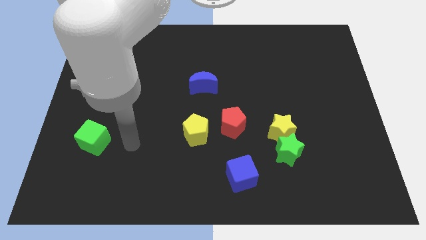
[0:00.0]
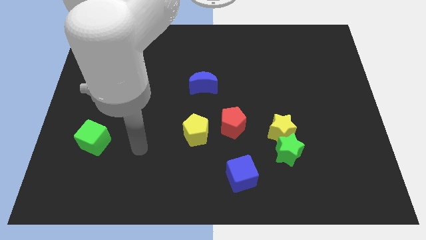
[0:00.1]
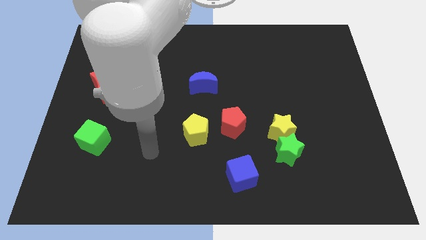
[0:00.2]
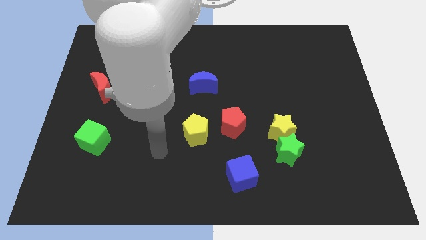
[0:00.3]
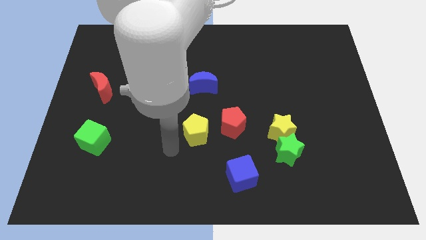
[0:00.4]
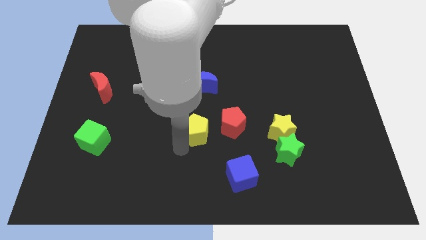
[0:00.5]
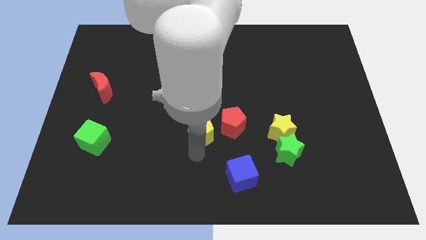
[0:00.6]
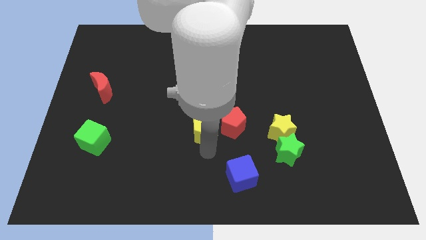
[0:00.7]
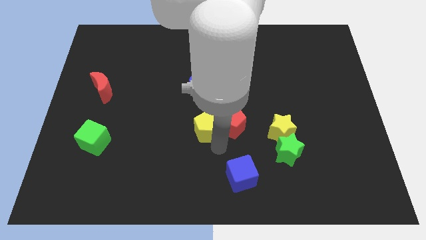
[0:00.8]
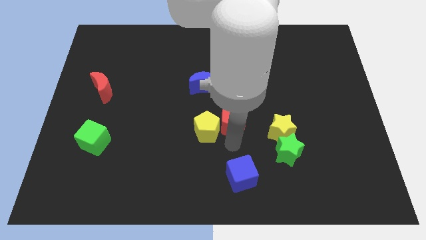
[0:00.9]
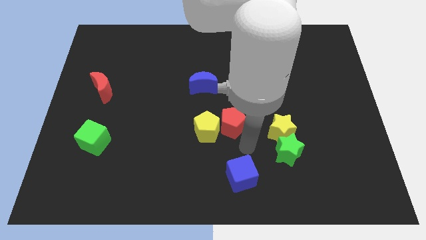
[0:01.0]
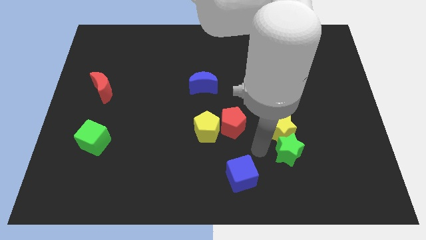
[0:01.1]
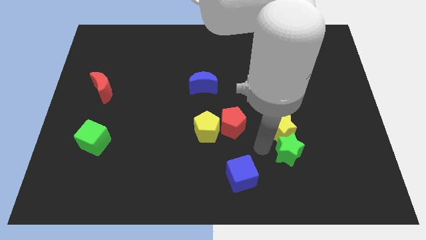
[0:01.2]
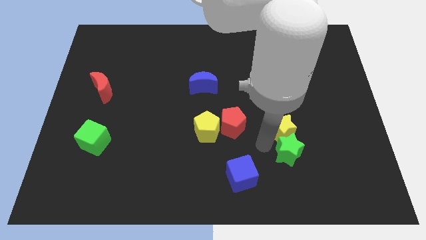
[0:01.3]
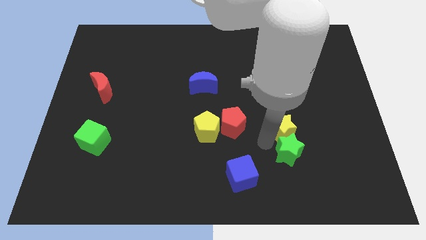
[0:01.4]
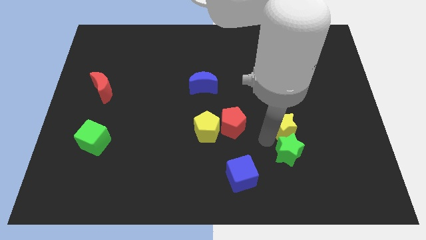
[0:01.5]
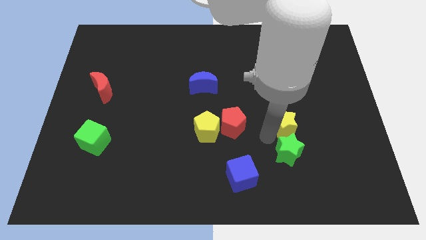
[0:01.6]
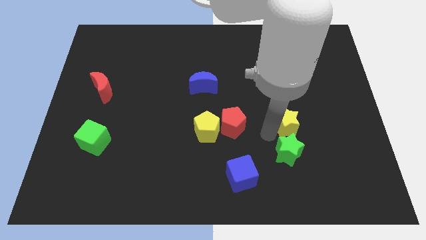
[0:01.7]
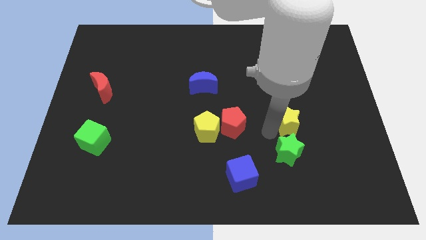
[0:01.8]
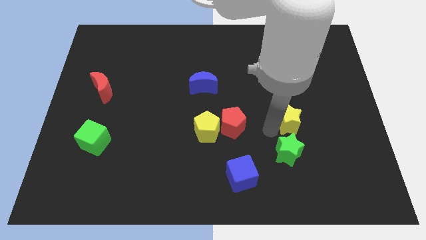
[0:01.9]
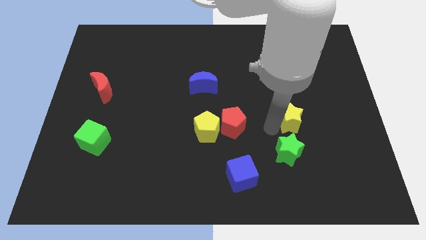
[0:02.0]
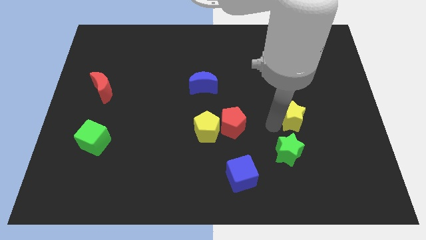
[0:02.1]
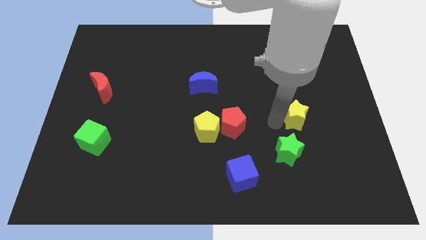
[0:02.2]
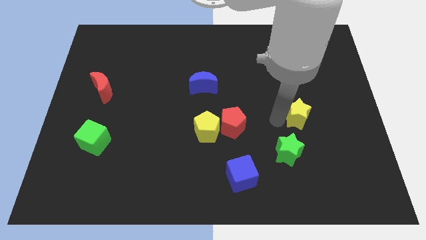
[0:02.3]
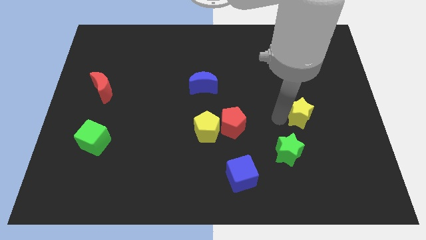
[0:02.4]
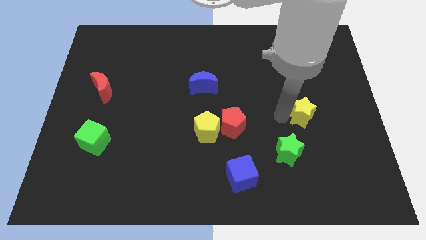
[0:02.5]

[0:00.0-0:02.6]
move the yellow star up and to the right diagonally a bit

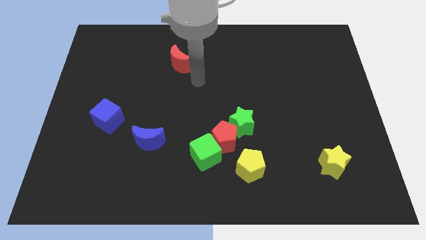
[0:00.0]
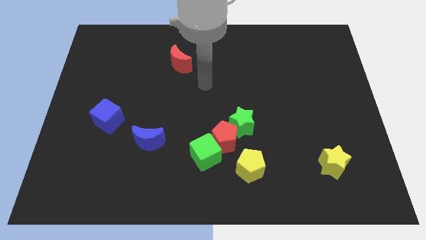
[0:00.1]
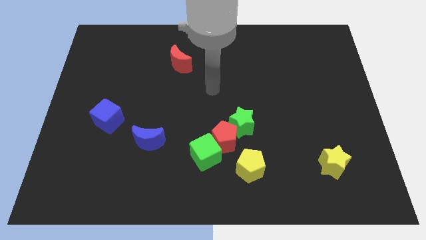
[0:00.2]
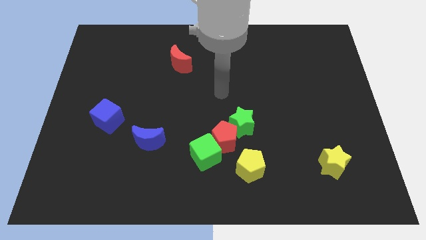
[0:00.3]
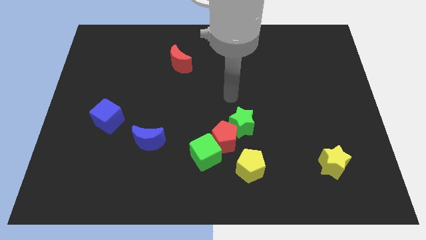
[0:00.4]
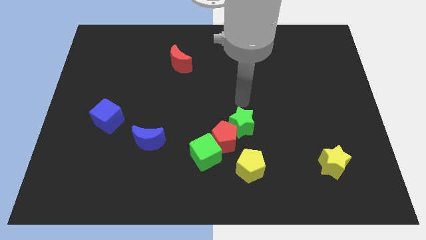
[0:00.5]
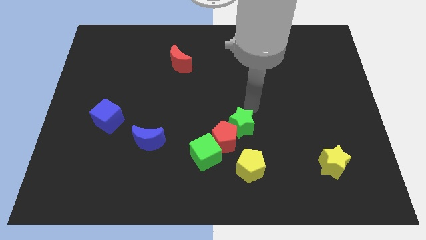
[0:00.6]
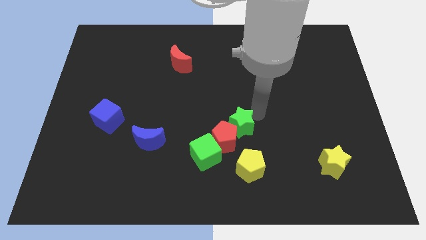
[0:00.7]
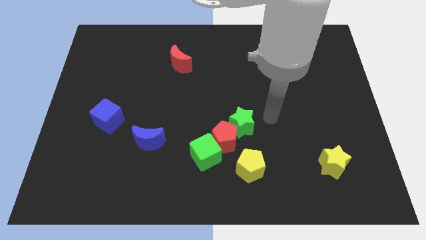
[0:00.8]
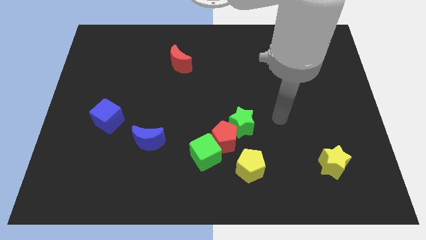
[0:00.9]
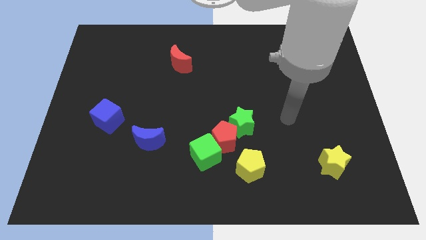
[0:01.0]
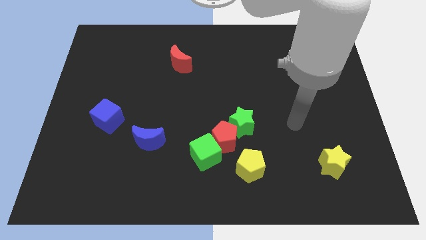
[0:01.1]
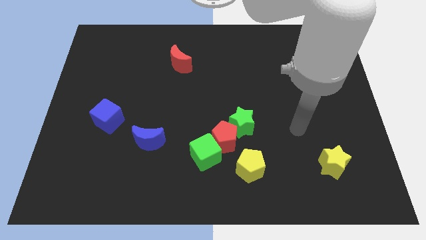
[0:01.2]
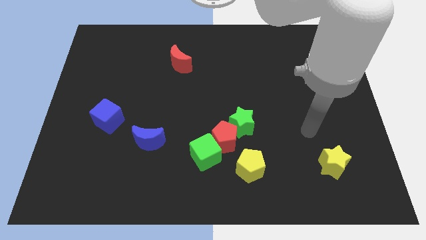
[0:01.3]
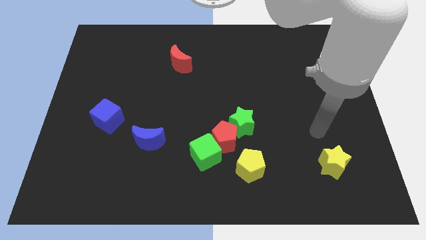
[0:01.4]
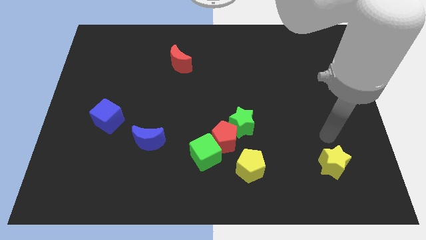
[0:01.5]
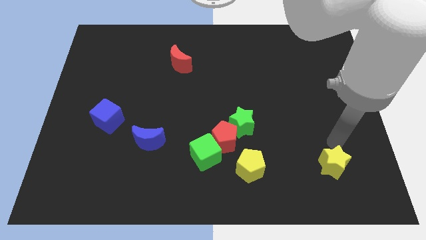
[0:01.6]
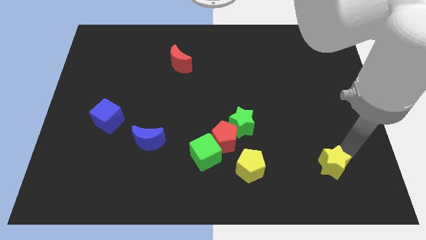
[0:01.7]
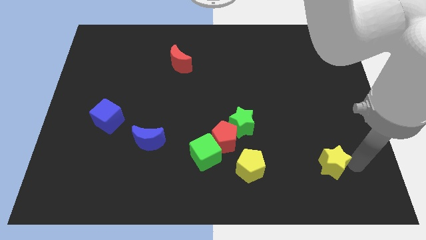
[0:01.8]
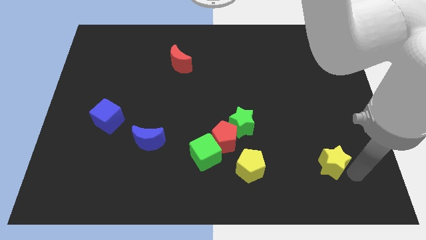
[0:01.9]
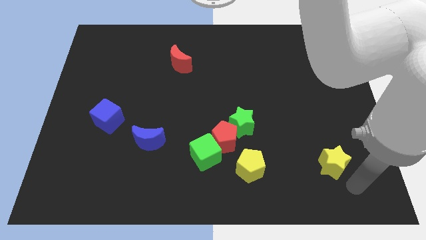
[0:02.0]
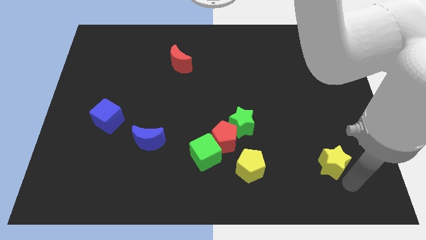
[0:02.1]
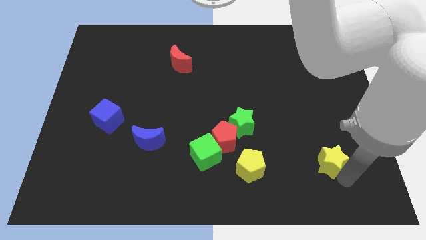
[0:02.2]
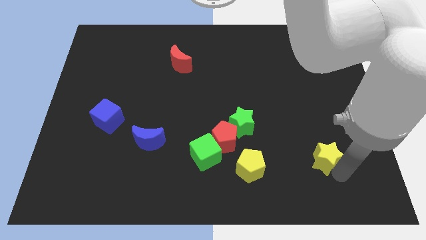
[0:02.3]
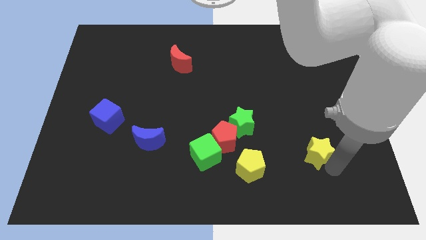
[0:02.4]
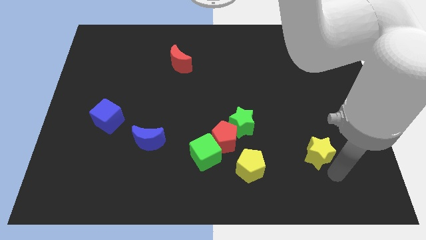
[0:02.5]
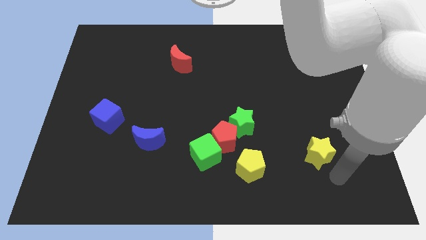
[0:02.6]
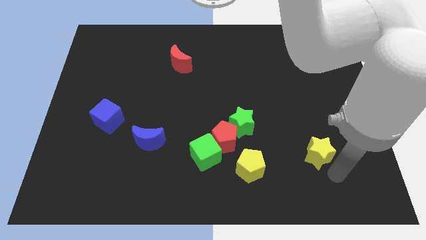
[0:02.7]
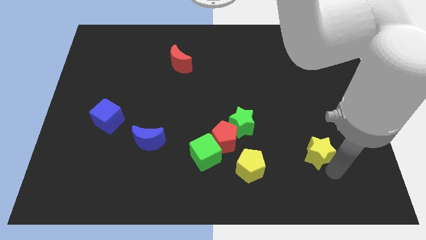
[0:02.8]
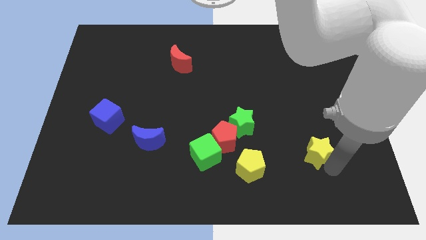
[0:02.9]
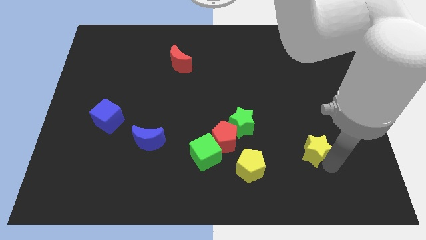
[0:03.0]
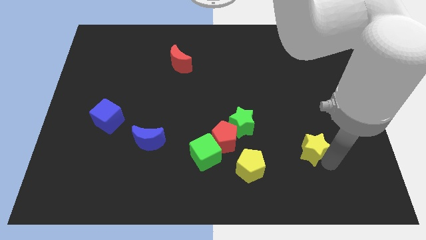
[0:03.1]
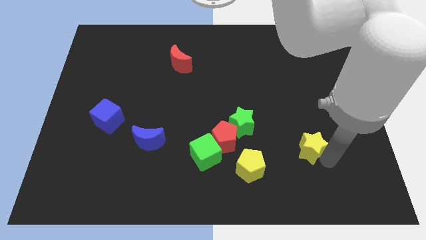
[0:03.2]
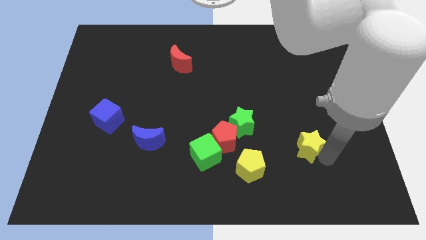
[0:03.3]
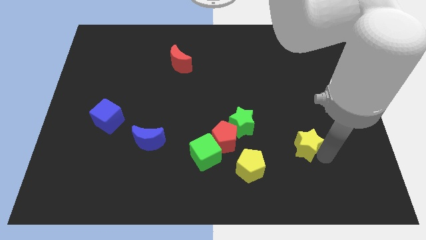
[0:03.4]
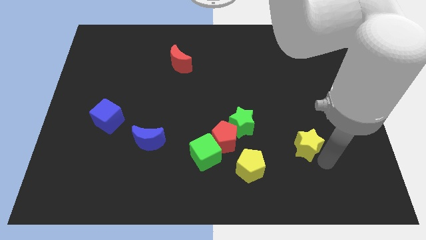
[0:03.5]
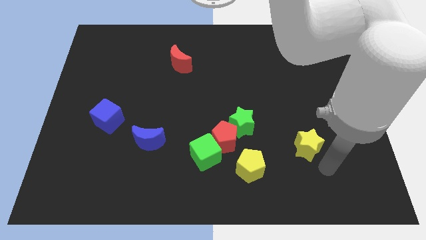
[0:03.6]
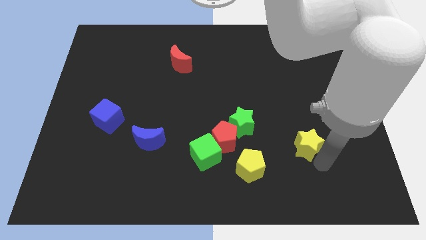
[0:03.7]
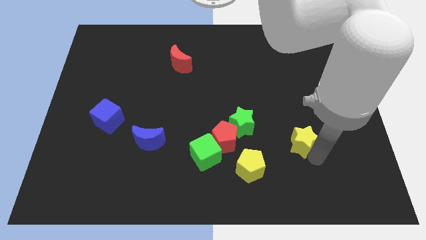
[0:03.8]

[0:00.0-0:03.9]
push the yellow star up and left a little

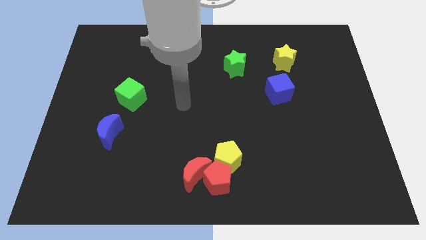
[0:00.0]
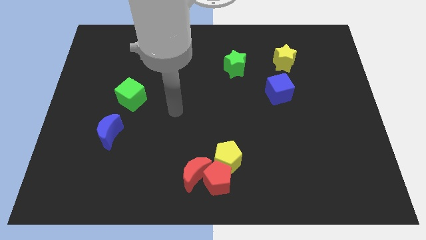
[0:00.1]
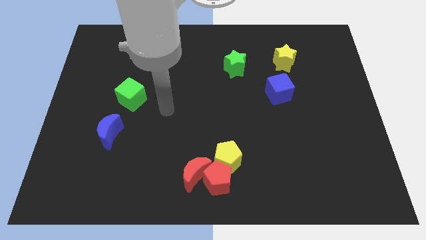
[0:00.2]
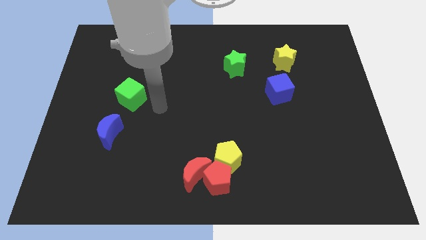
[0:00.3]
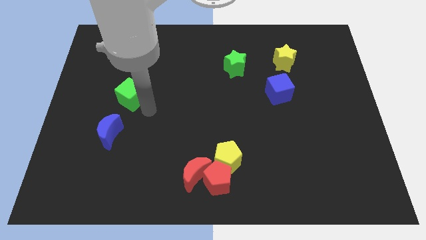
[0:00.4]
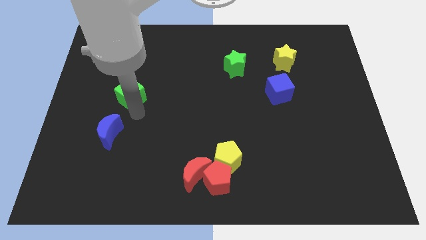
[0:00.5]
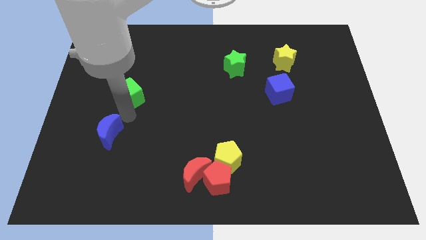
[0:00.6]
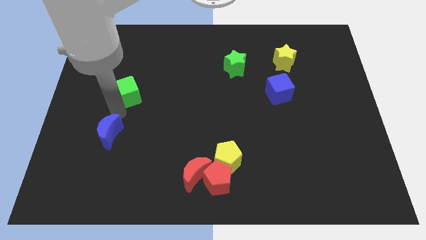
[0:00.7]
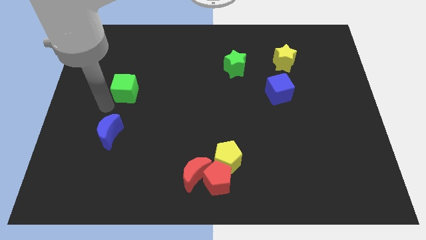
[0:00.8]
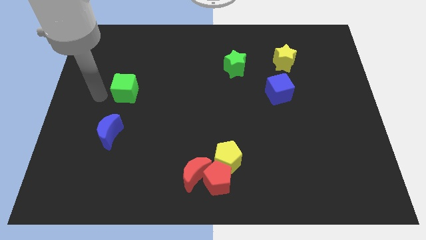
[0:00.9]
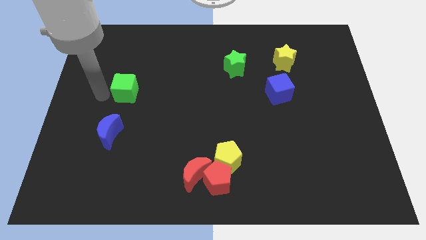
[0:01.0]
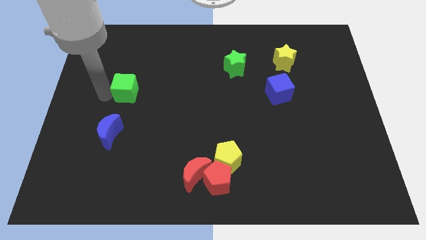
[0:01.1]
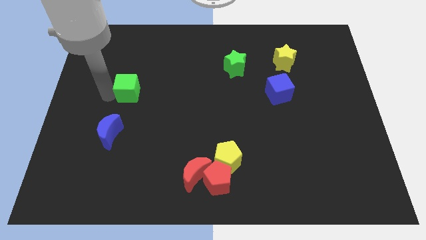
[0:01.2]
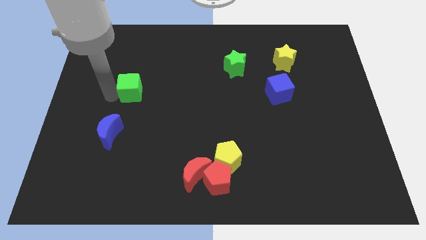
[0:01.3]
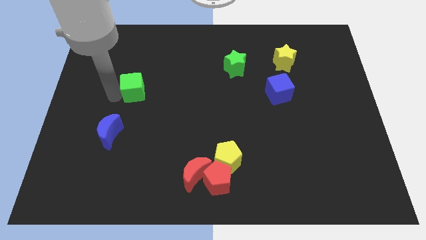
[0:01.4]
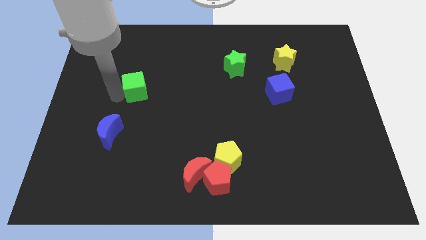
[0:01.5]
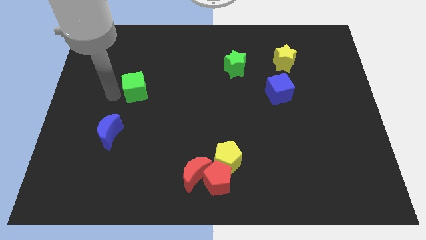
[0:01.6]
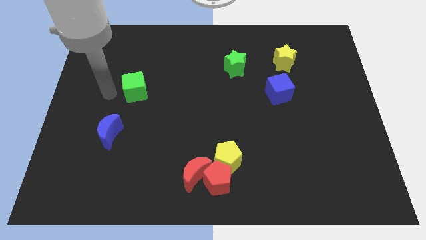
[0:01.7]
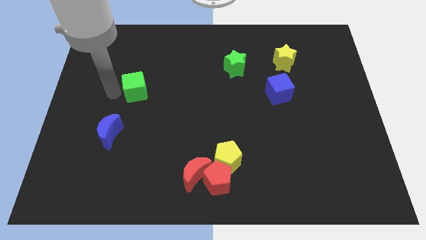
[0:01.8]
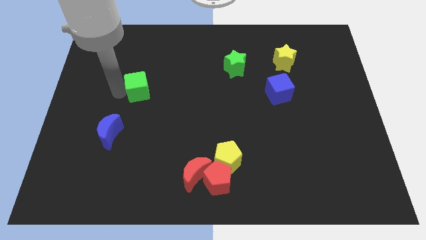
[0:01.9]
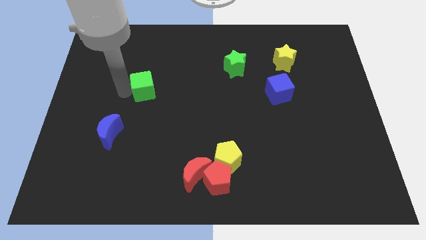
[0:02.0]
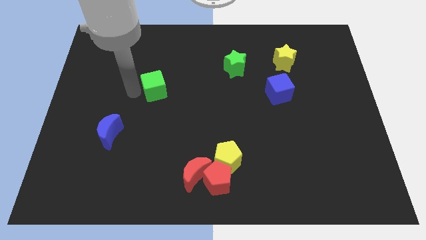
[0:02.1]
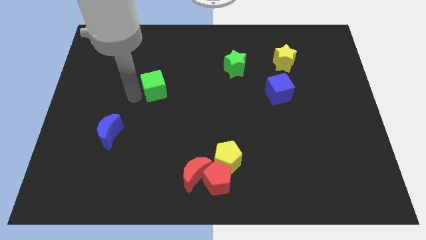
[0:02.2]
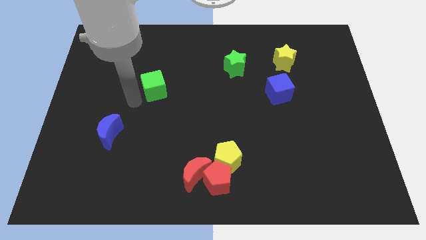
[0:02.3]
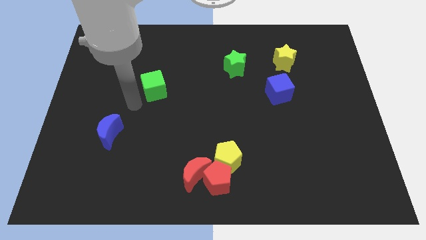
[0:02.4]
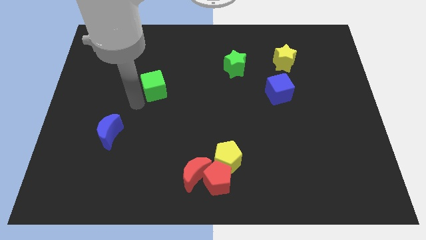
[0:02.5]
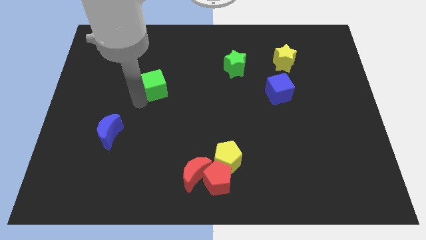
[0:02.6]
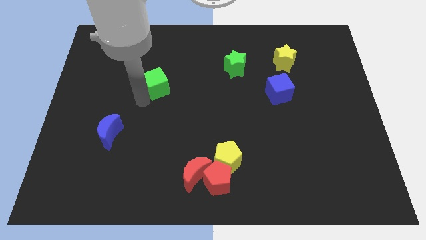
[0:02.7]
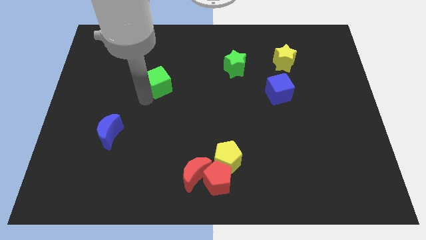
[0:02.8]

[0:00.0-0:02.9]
slightly move the green cube diagonally upwards and to the right
